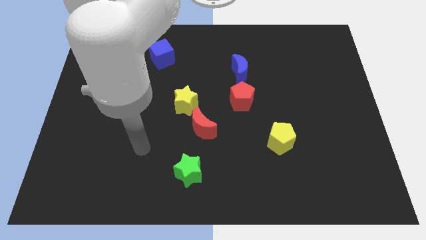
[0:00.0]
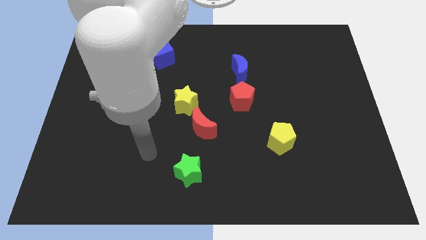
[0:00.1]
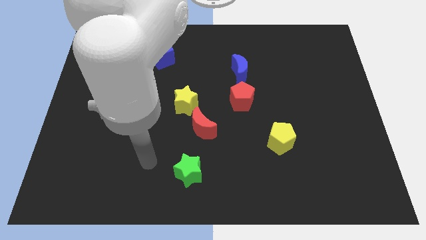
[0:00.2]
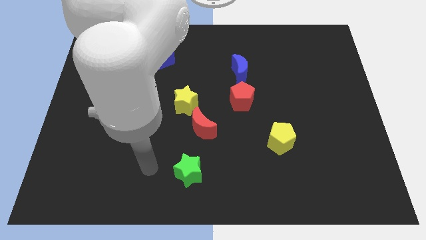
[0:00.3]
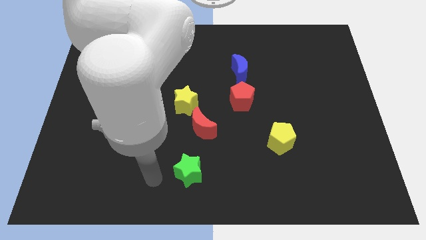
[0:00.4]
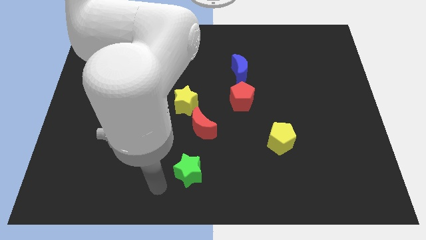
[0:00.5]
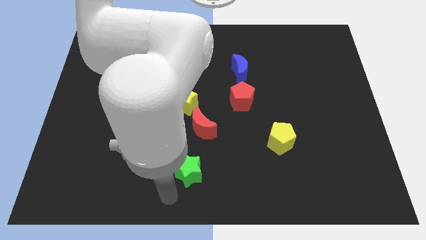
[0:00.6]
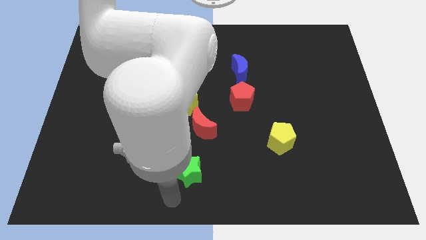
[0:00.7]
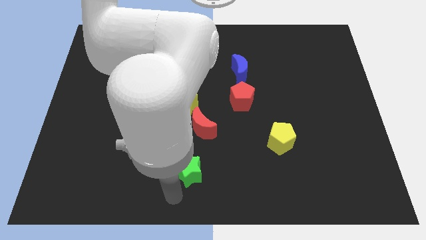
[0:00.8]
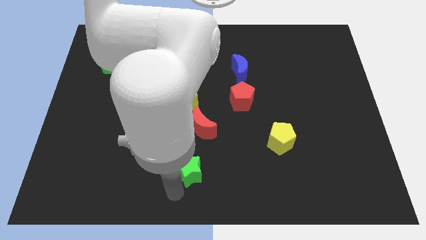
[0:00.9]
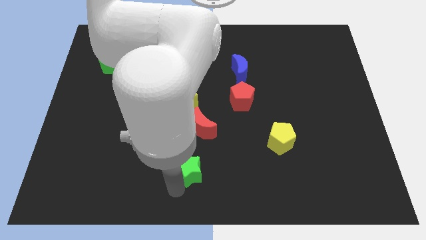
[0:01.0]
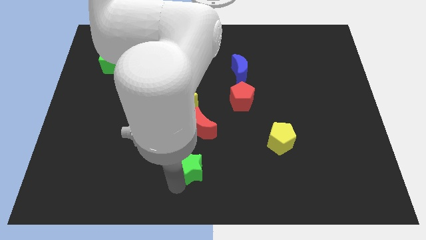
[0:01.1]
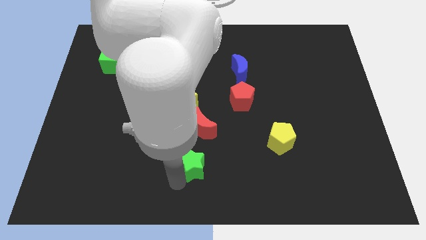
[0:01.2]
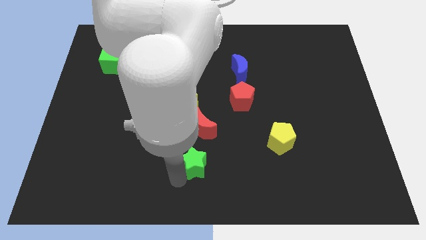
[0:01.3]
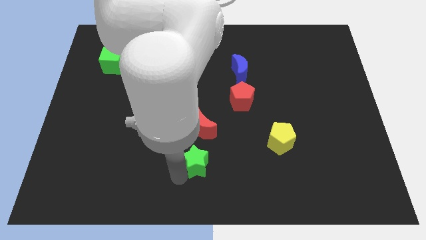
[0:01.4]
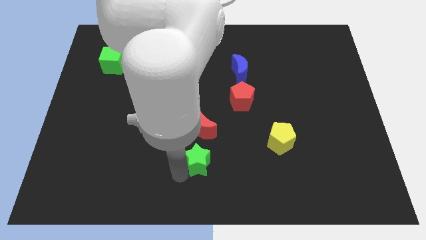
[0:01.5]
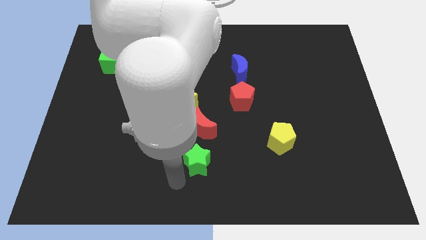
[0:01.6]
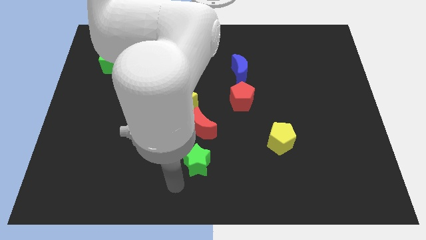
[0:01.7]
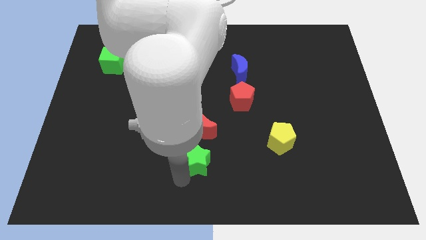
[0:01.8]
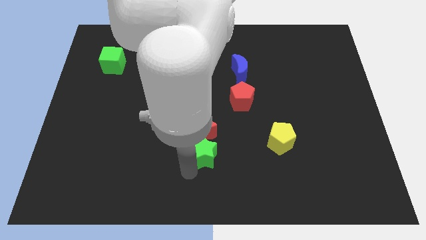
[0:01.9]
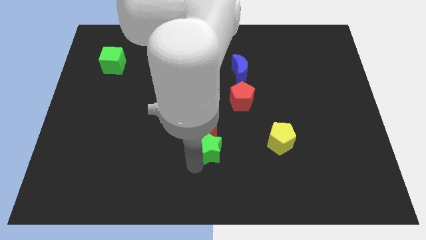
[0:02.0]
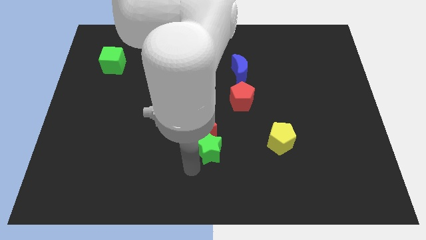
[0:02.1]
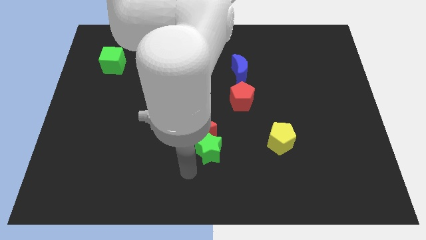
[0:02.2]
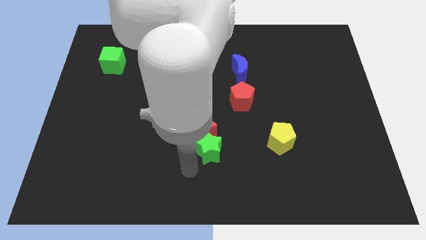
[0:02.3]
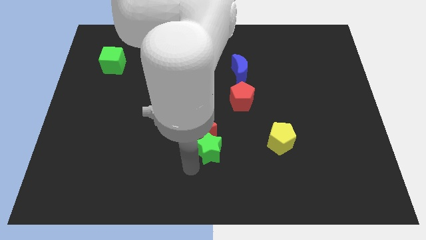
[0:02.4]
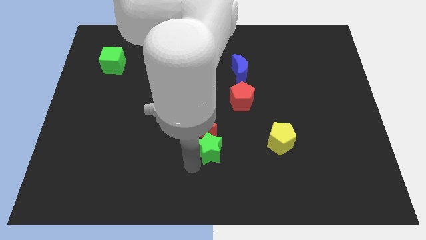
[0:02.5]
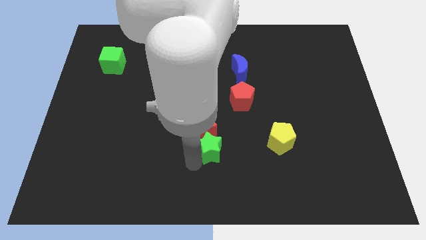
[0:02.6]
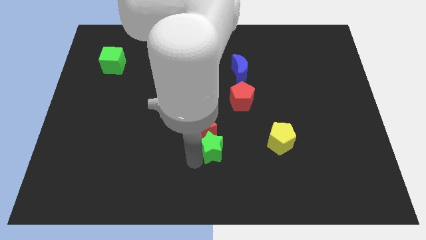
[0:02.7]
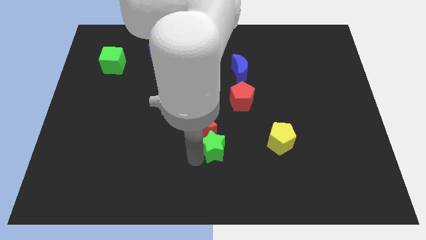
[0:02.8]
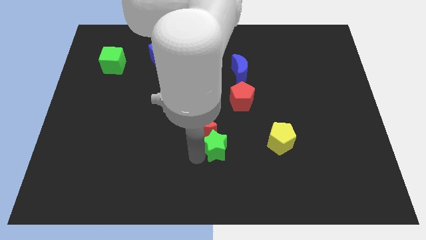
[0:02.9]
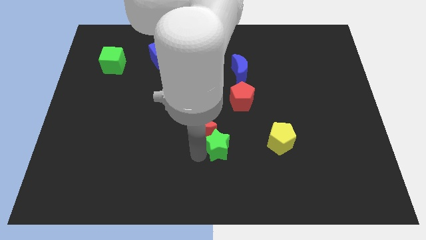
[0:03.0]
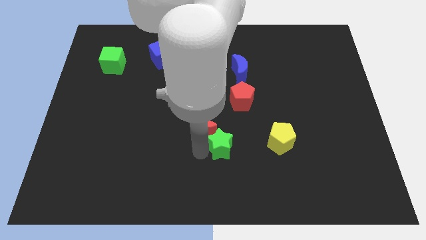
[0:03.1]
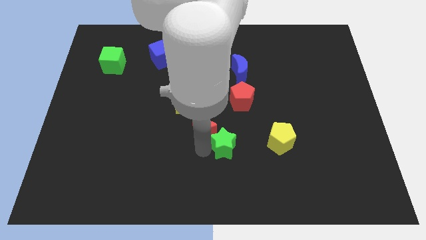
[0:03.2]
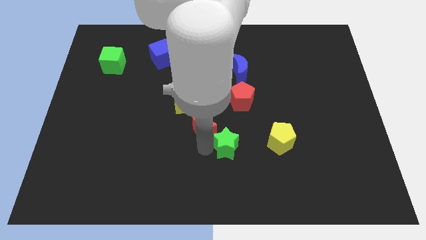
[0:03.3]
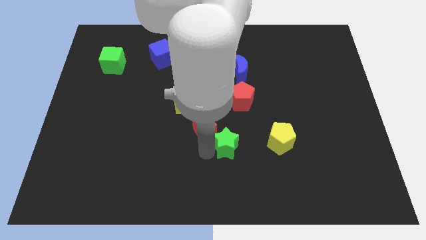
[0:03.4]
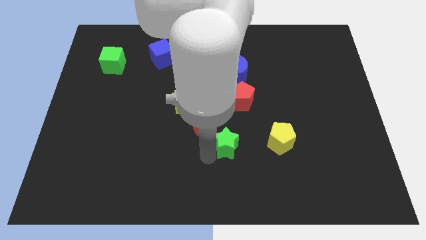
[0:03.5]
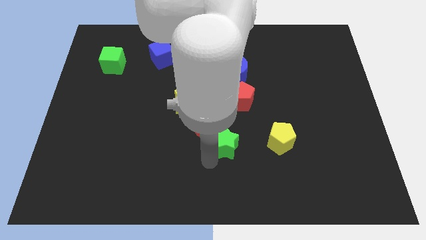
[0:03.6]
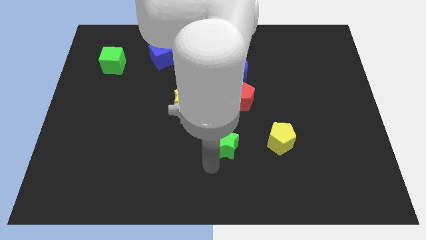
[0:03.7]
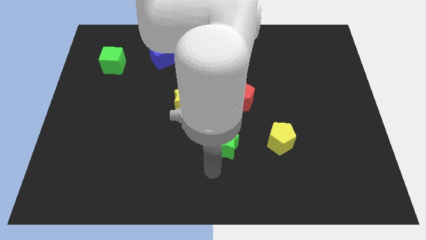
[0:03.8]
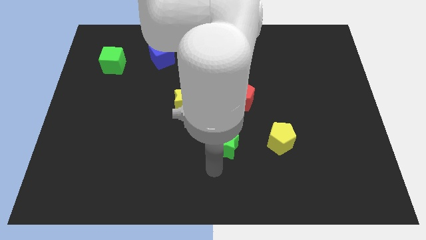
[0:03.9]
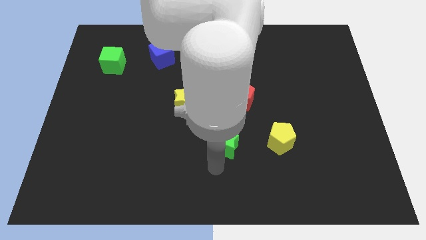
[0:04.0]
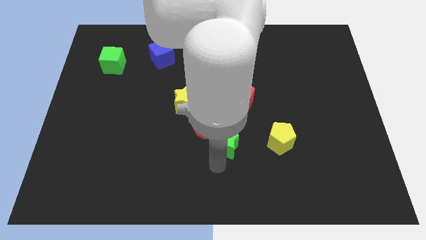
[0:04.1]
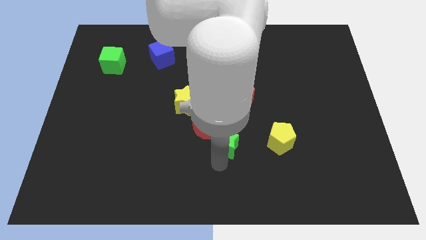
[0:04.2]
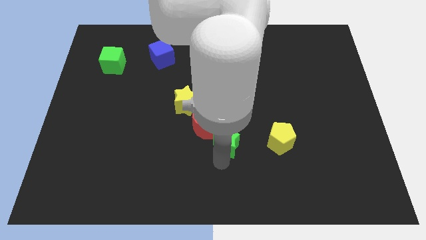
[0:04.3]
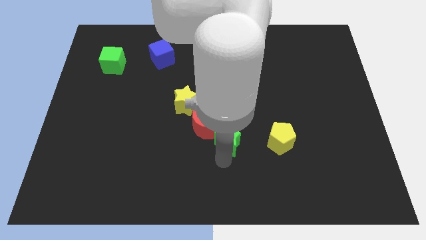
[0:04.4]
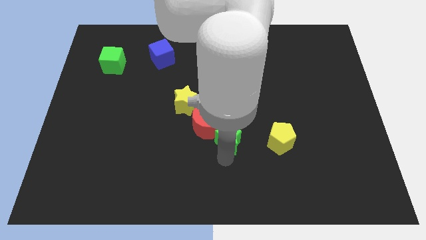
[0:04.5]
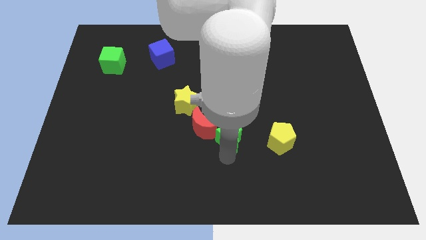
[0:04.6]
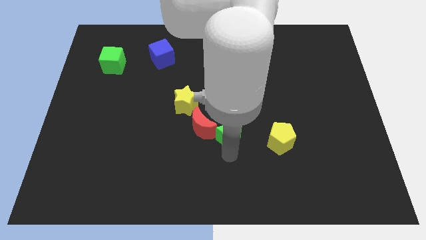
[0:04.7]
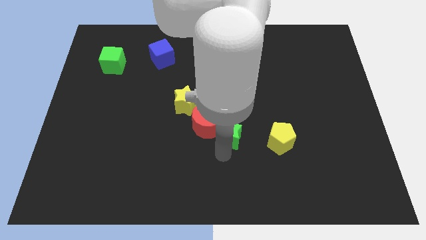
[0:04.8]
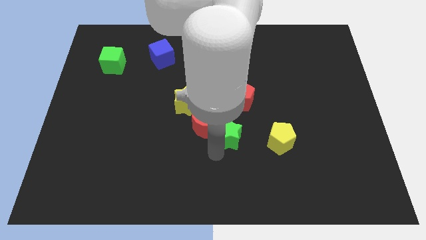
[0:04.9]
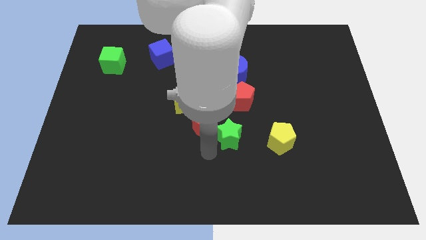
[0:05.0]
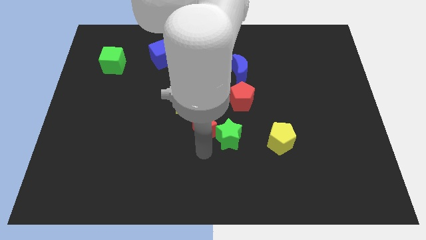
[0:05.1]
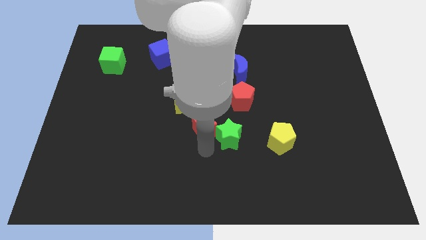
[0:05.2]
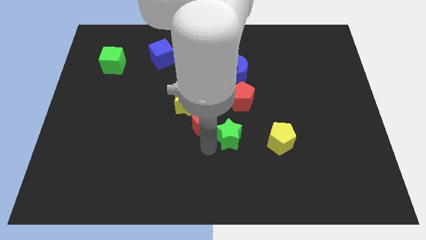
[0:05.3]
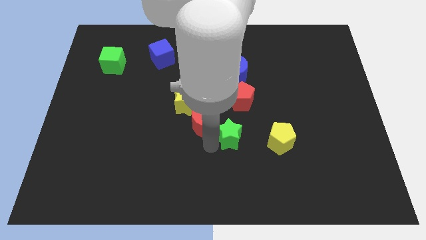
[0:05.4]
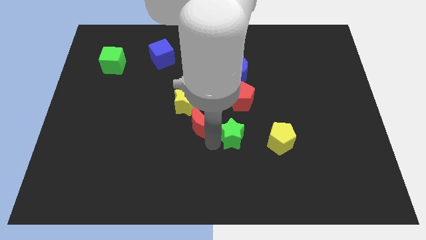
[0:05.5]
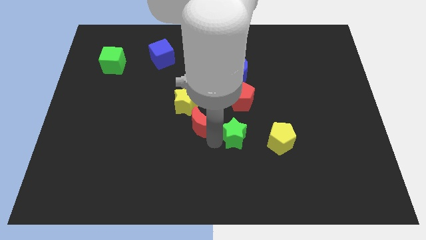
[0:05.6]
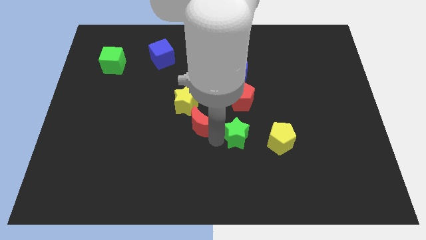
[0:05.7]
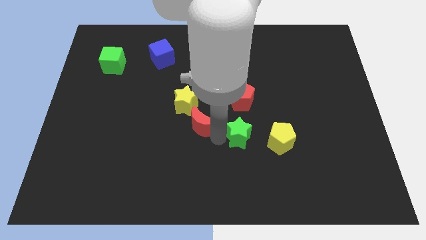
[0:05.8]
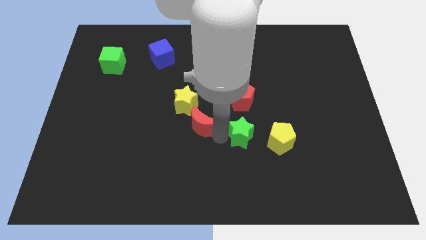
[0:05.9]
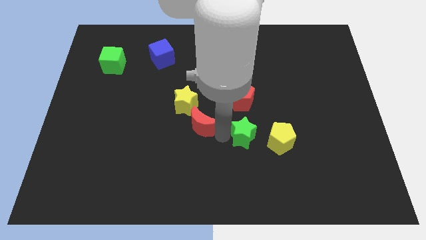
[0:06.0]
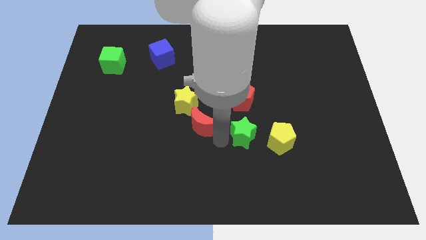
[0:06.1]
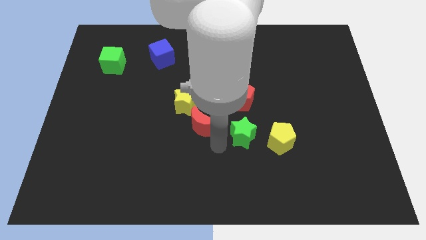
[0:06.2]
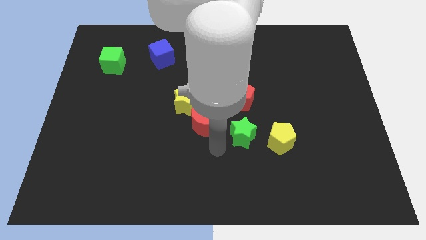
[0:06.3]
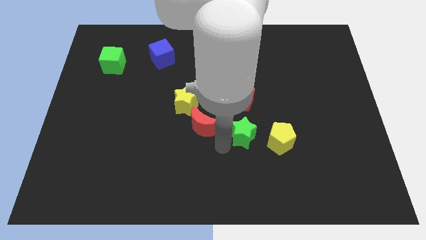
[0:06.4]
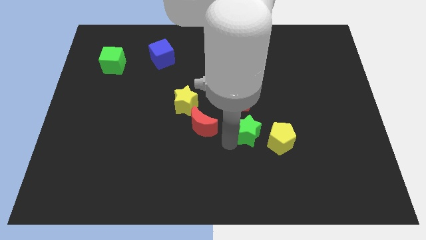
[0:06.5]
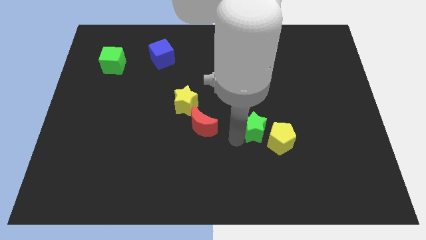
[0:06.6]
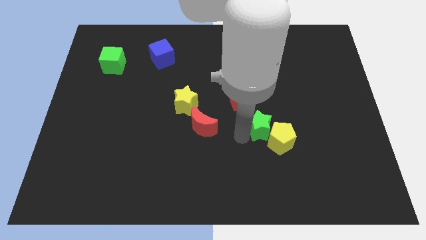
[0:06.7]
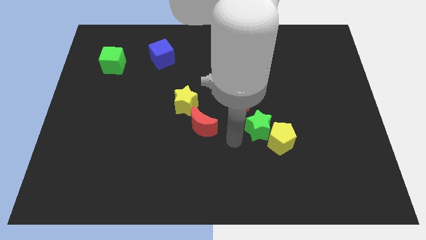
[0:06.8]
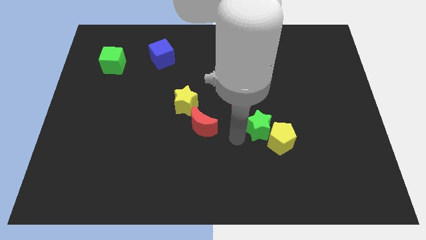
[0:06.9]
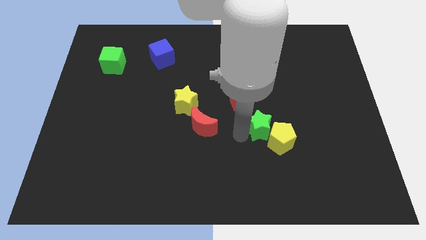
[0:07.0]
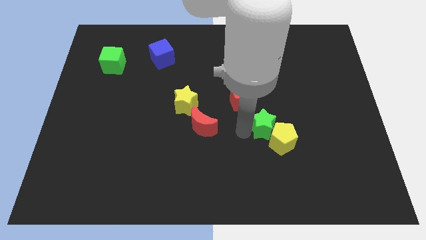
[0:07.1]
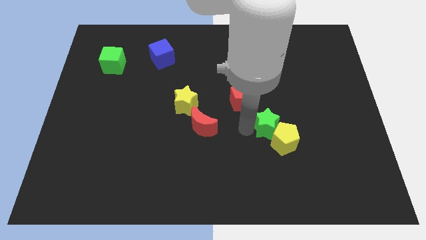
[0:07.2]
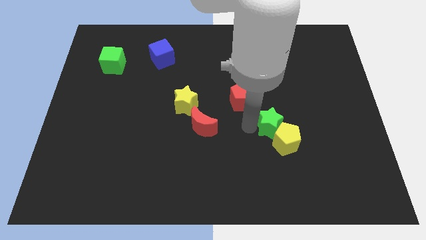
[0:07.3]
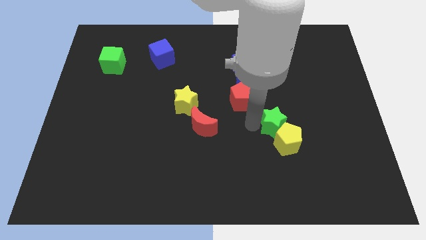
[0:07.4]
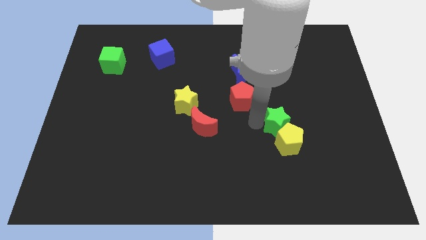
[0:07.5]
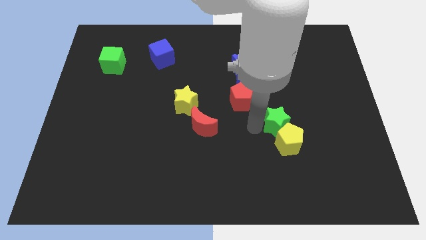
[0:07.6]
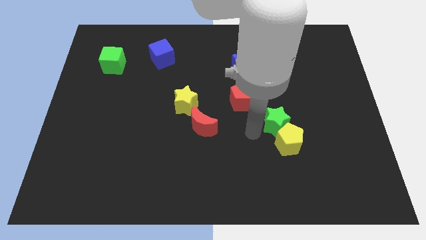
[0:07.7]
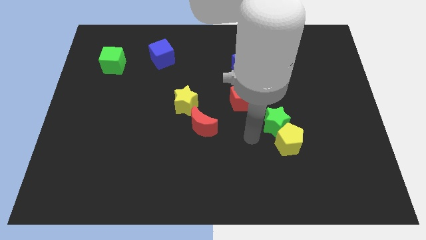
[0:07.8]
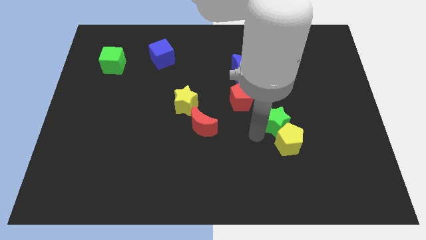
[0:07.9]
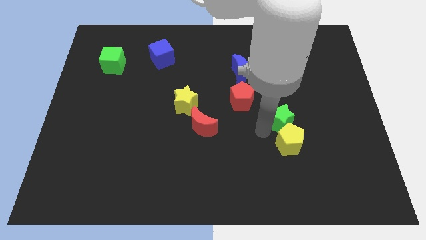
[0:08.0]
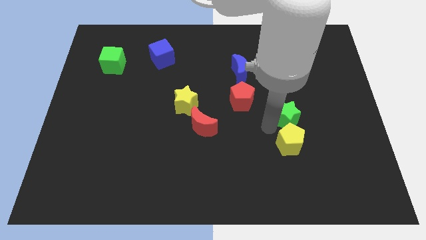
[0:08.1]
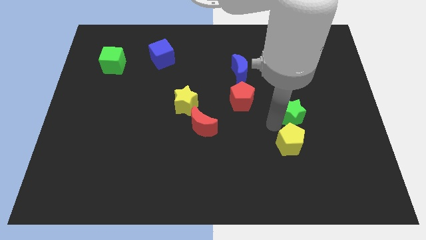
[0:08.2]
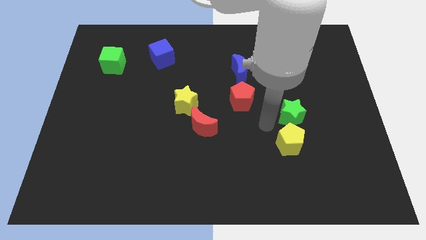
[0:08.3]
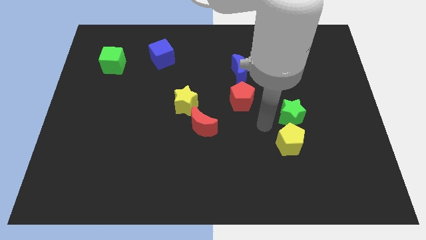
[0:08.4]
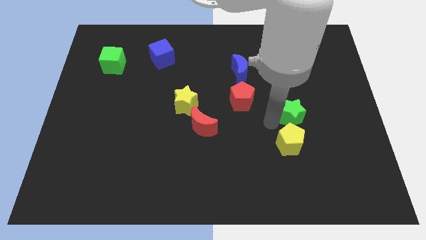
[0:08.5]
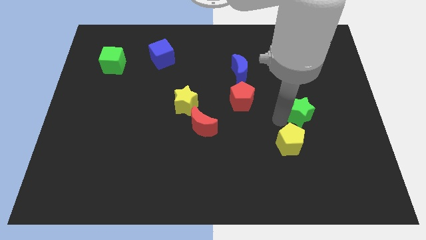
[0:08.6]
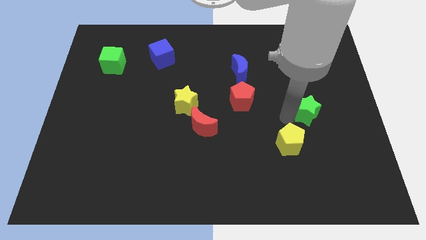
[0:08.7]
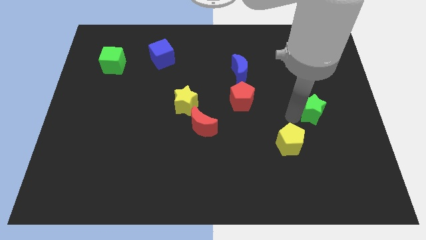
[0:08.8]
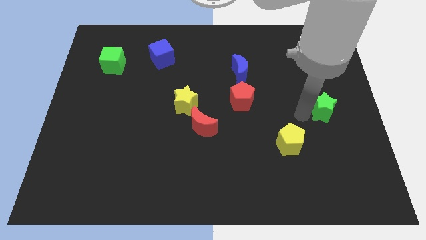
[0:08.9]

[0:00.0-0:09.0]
put the green star to the right side
